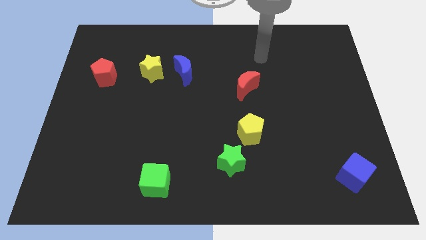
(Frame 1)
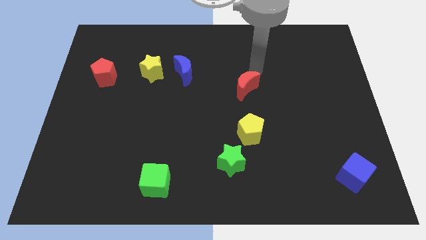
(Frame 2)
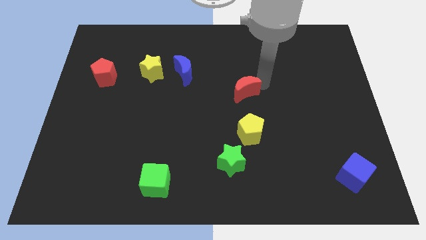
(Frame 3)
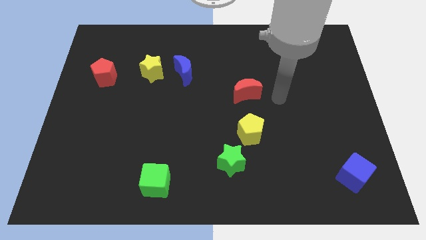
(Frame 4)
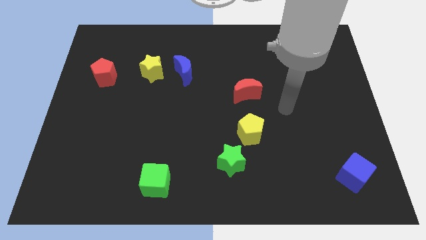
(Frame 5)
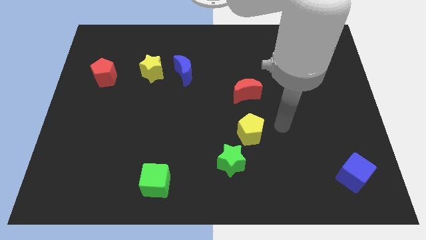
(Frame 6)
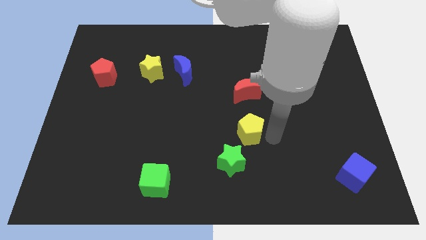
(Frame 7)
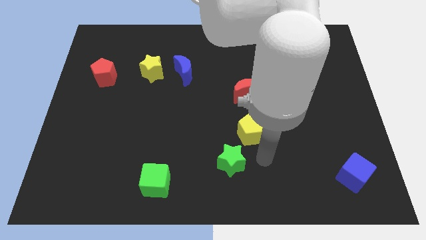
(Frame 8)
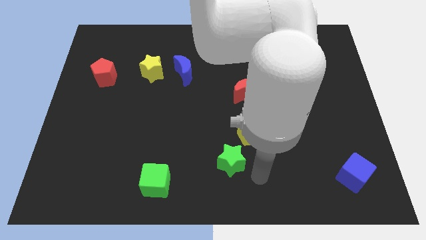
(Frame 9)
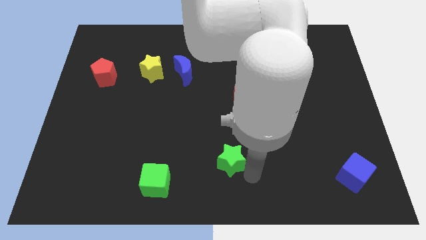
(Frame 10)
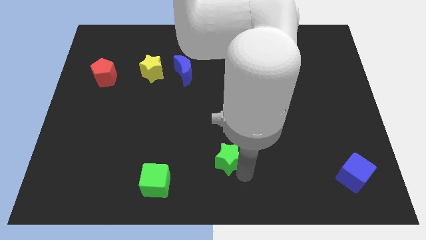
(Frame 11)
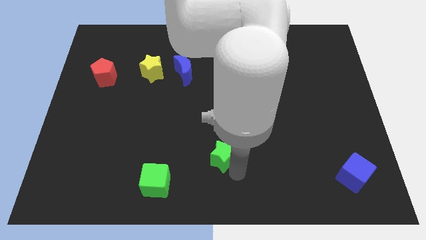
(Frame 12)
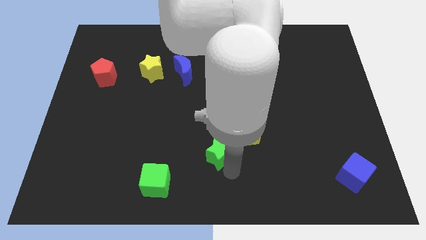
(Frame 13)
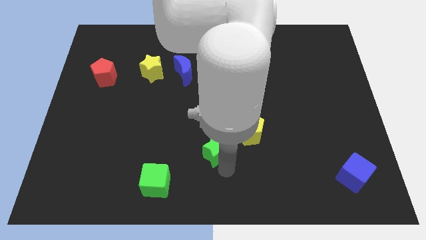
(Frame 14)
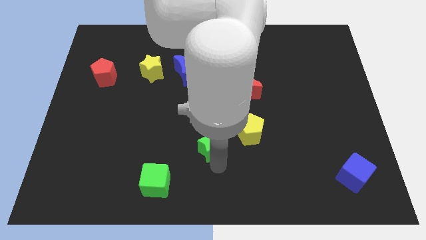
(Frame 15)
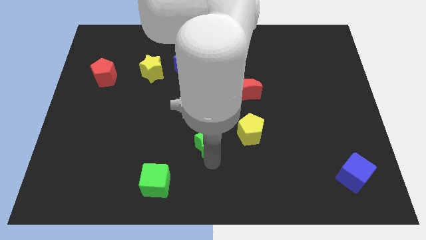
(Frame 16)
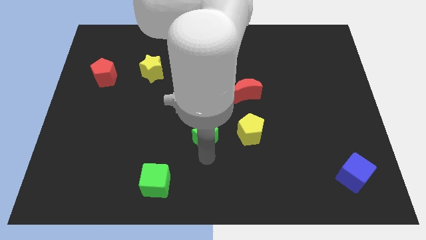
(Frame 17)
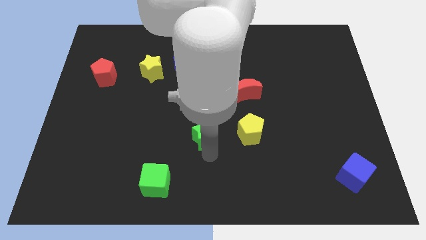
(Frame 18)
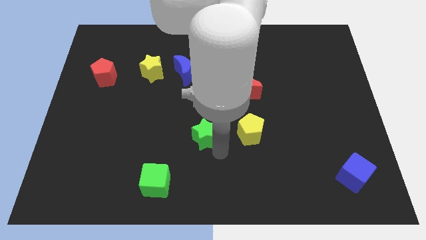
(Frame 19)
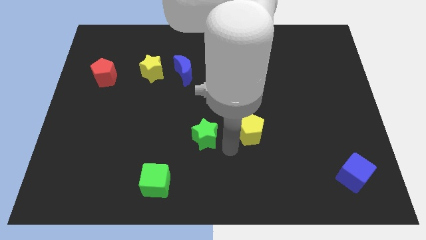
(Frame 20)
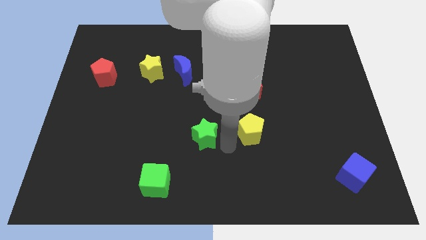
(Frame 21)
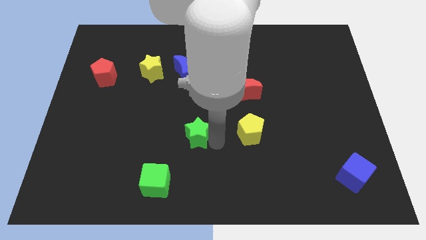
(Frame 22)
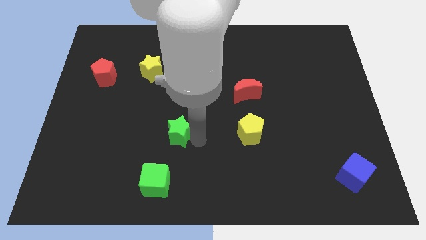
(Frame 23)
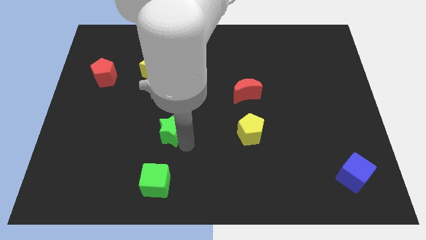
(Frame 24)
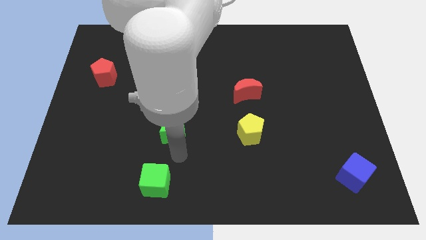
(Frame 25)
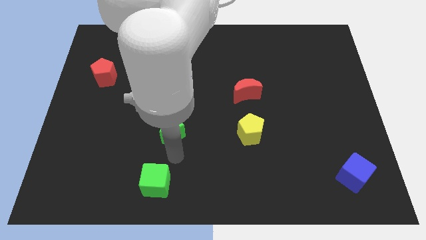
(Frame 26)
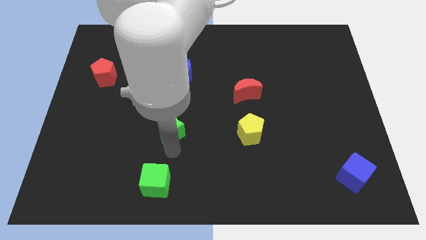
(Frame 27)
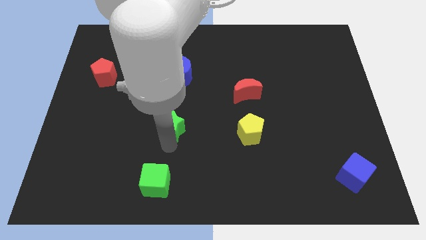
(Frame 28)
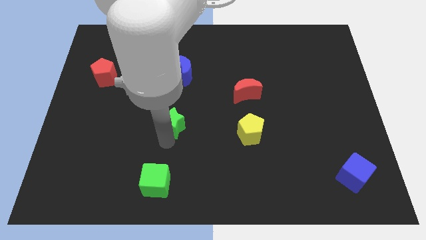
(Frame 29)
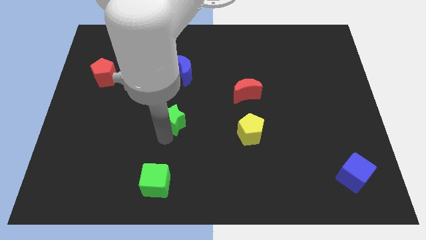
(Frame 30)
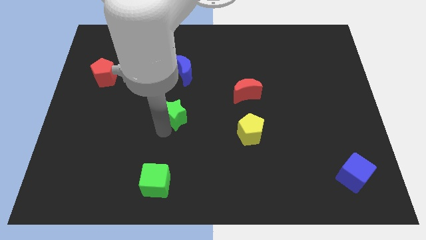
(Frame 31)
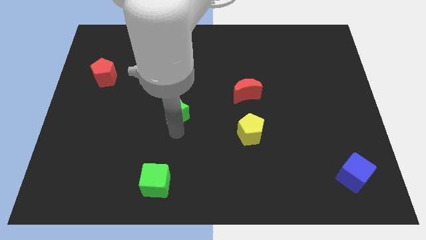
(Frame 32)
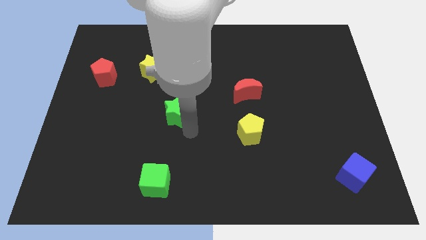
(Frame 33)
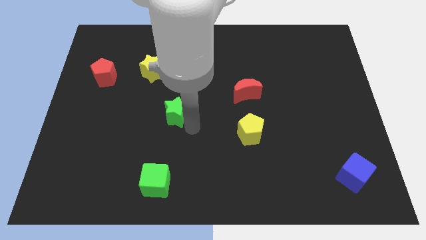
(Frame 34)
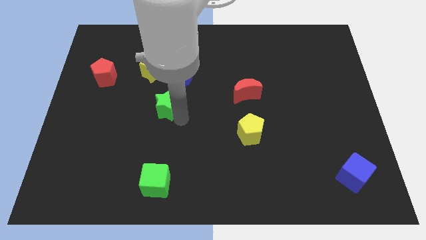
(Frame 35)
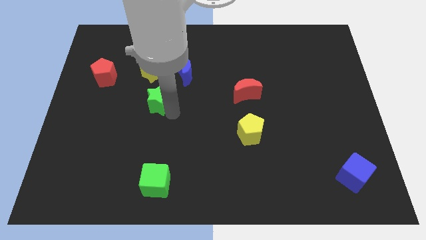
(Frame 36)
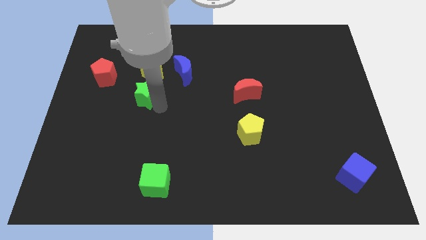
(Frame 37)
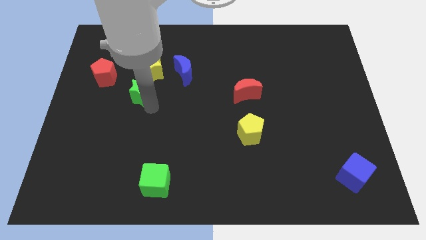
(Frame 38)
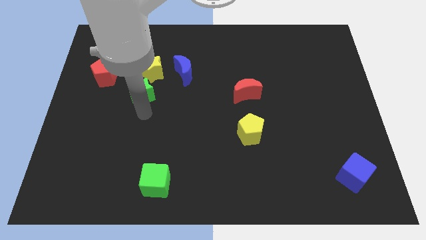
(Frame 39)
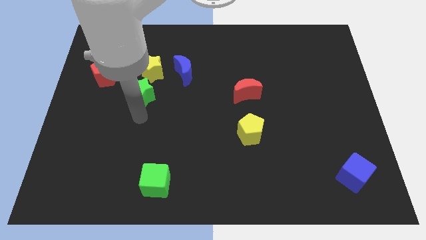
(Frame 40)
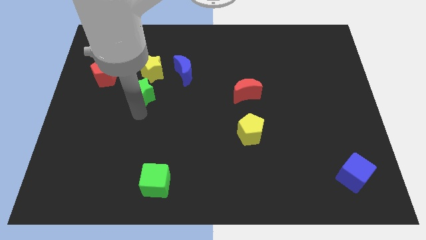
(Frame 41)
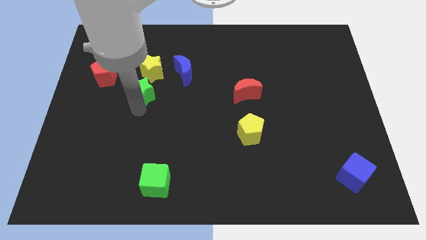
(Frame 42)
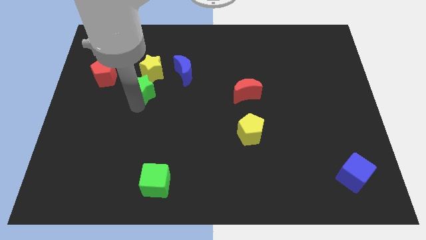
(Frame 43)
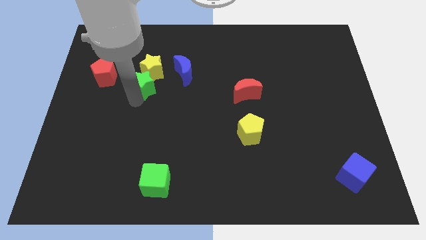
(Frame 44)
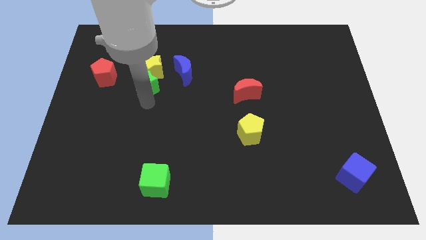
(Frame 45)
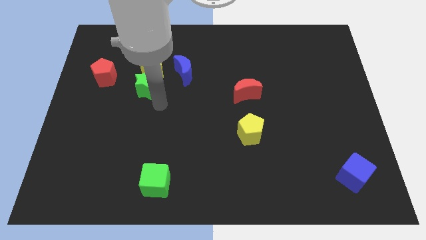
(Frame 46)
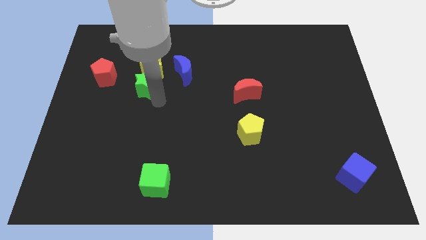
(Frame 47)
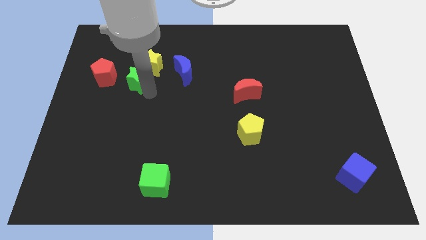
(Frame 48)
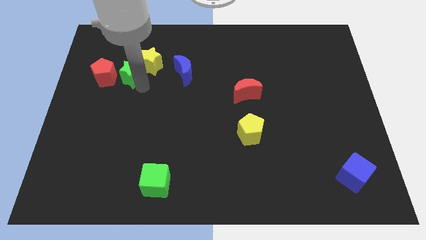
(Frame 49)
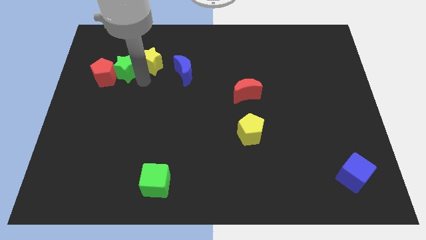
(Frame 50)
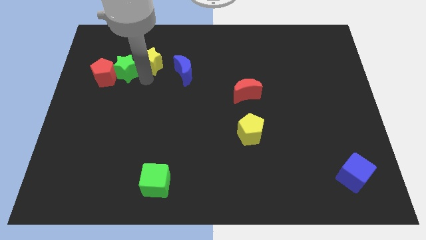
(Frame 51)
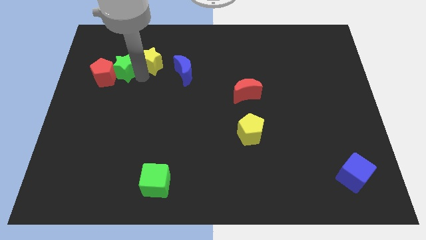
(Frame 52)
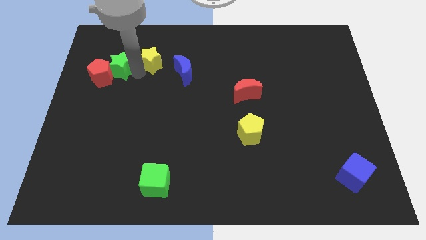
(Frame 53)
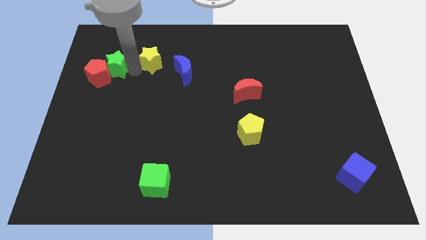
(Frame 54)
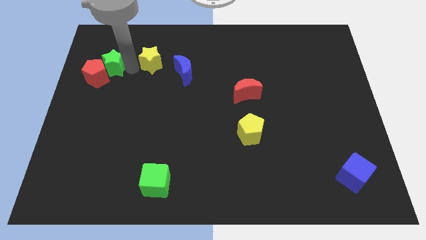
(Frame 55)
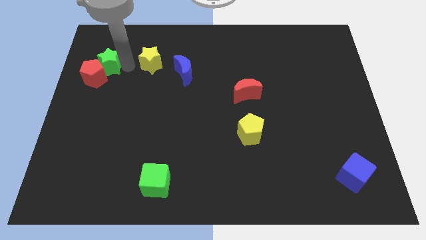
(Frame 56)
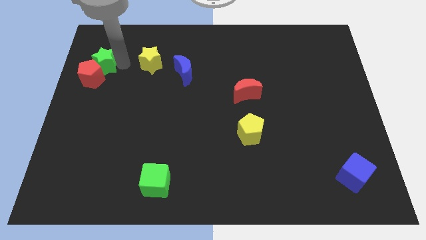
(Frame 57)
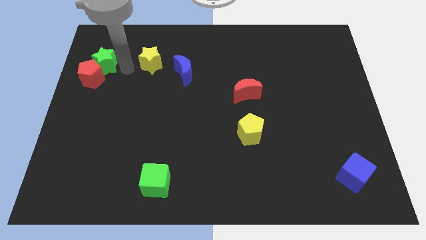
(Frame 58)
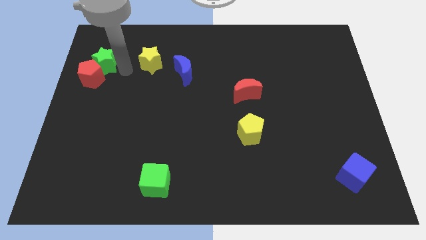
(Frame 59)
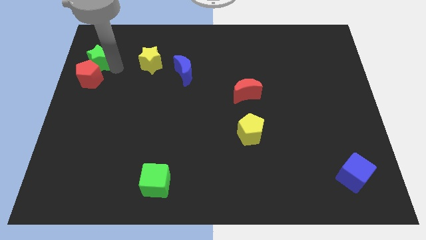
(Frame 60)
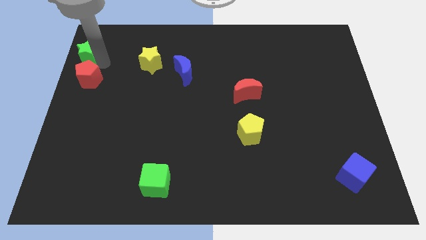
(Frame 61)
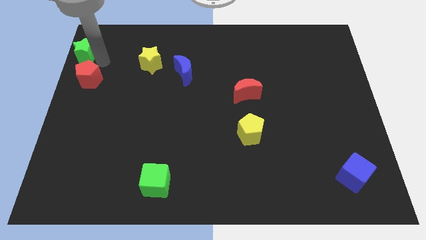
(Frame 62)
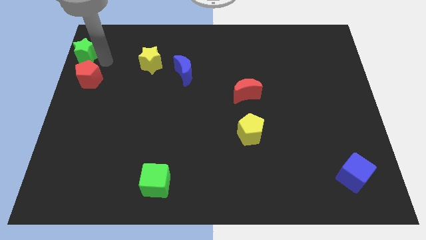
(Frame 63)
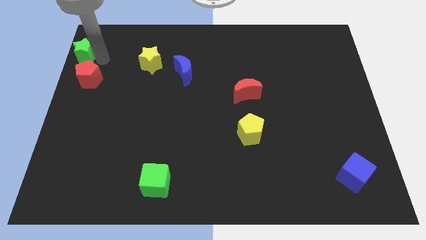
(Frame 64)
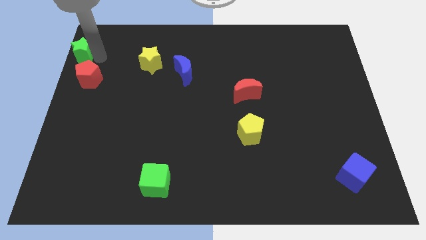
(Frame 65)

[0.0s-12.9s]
put the green star to the upper left corner
